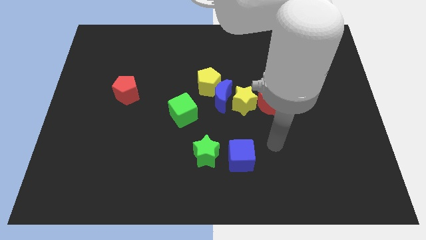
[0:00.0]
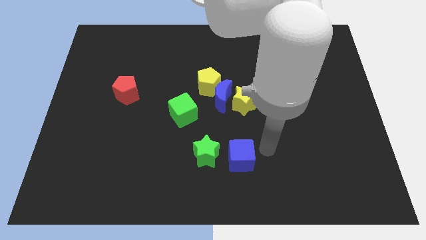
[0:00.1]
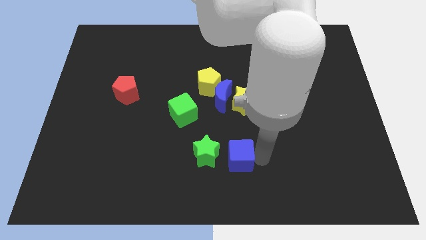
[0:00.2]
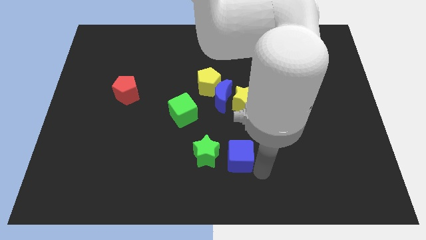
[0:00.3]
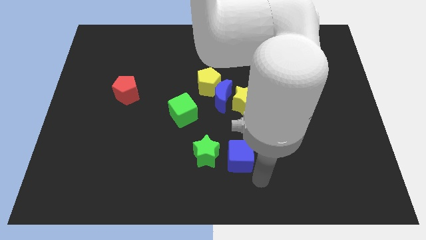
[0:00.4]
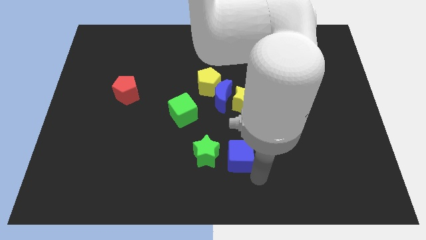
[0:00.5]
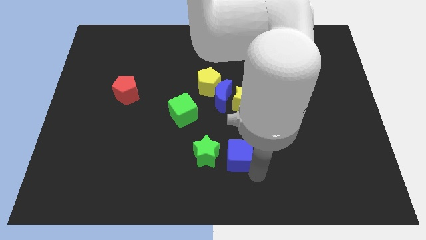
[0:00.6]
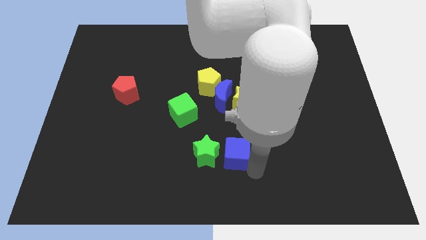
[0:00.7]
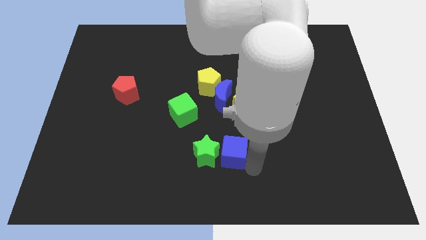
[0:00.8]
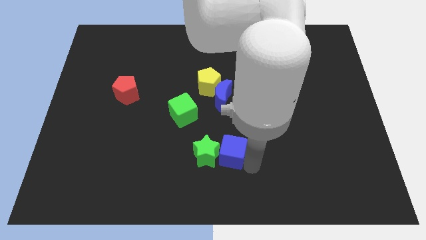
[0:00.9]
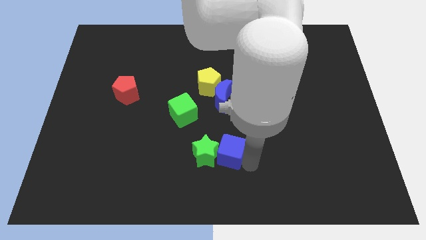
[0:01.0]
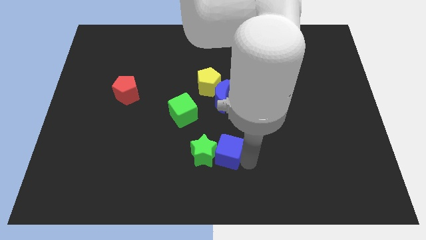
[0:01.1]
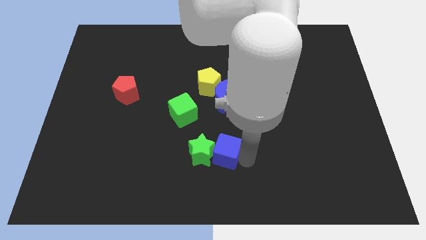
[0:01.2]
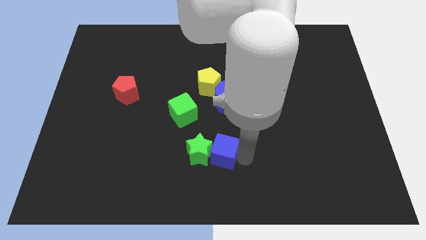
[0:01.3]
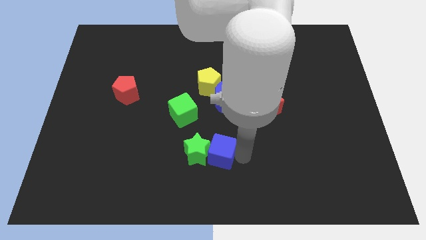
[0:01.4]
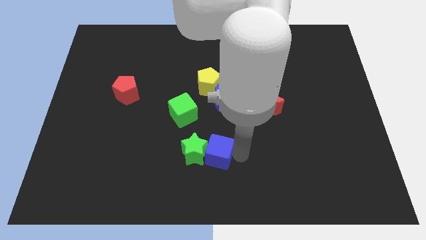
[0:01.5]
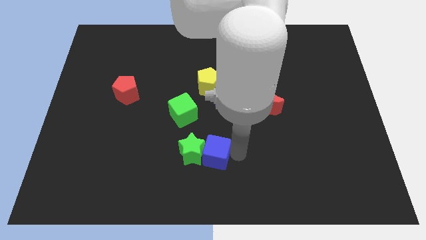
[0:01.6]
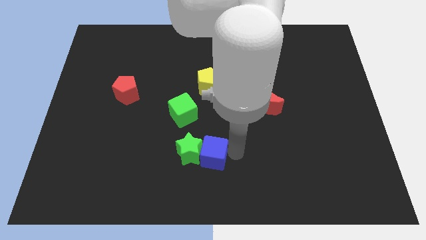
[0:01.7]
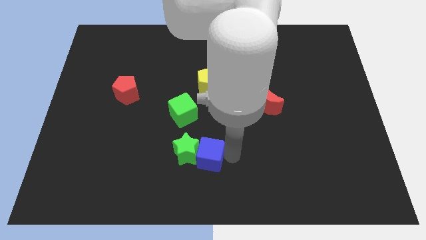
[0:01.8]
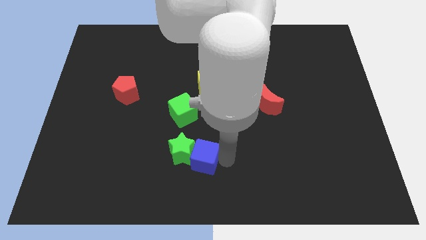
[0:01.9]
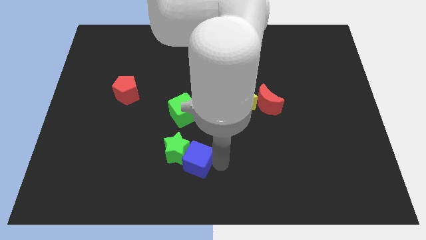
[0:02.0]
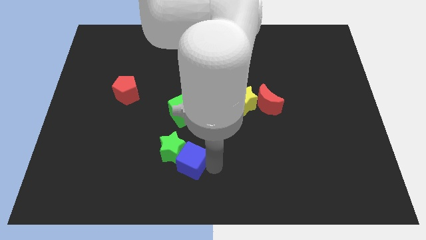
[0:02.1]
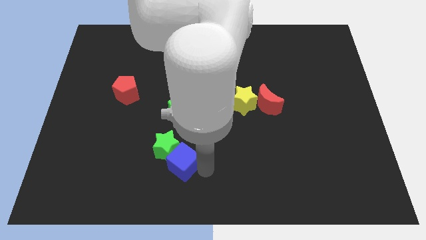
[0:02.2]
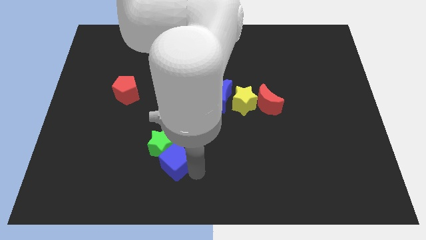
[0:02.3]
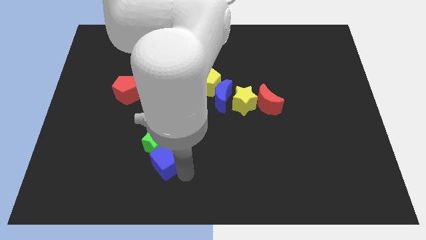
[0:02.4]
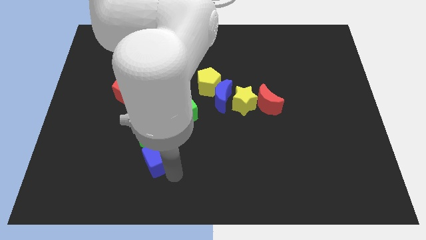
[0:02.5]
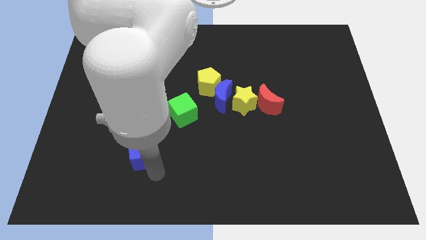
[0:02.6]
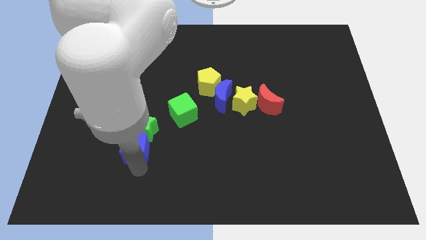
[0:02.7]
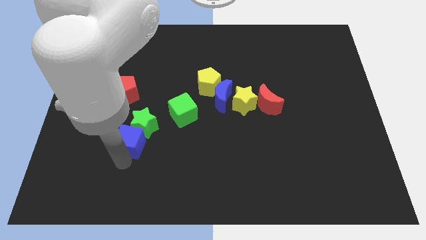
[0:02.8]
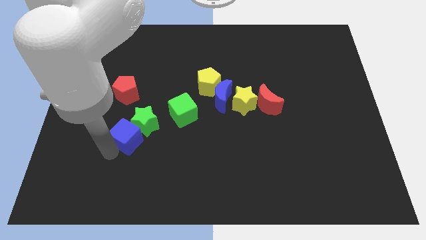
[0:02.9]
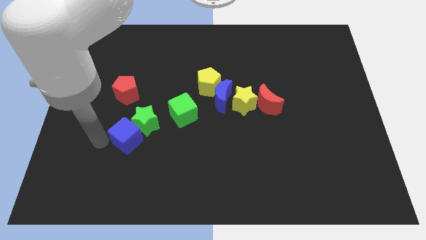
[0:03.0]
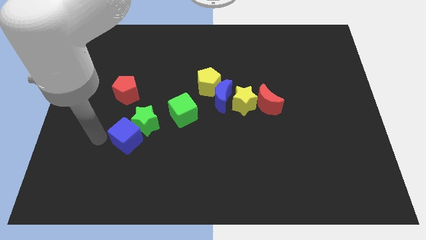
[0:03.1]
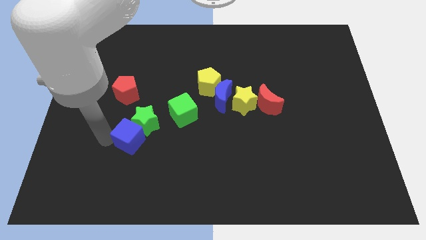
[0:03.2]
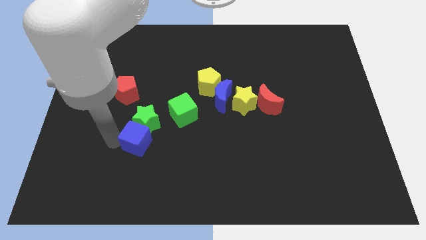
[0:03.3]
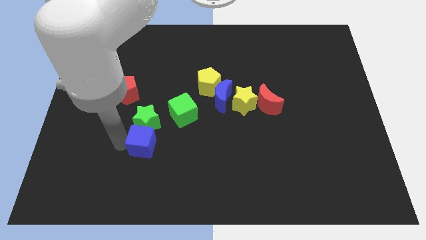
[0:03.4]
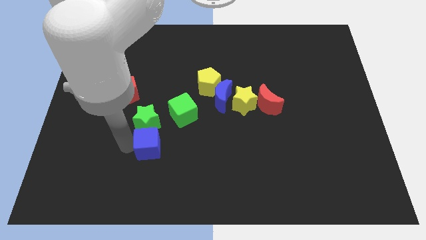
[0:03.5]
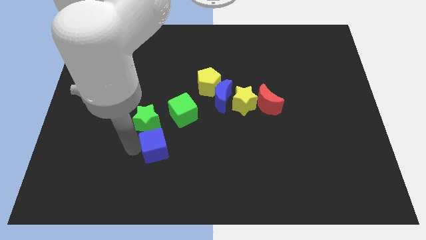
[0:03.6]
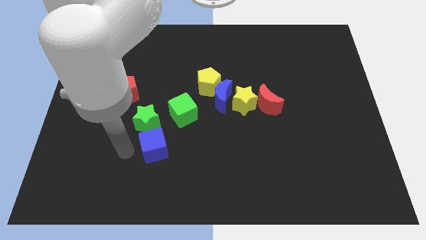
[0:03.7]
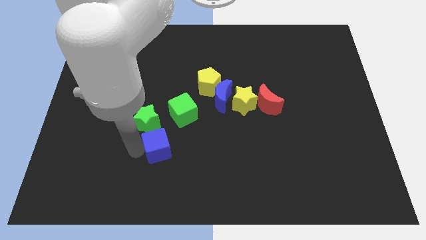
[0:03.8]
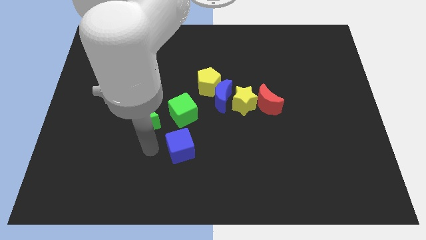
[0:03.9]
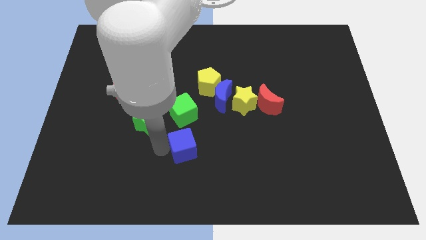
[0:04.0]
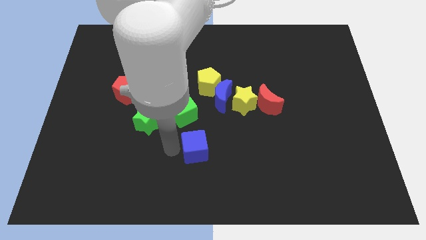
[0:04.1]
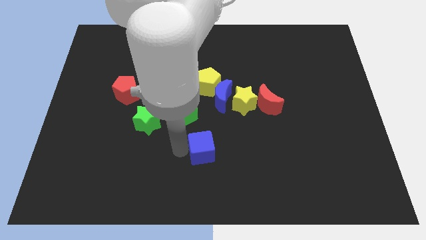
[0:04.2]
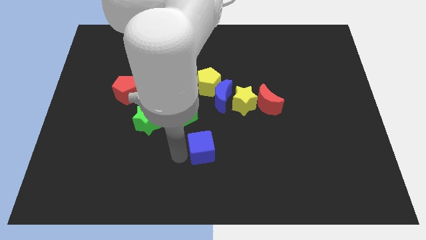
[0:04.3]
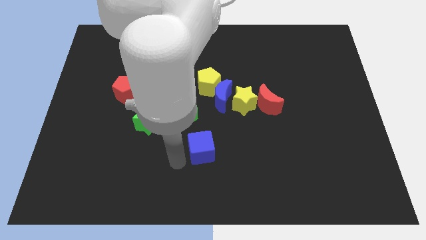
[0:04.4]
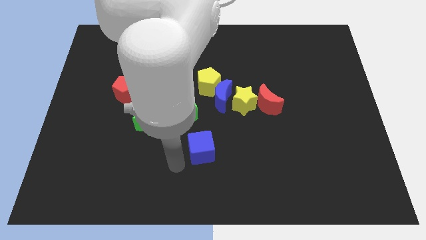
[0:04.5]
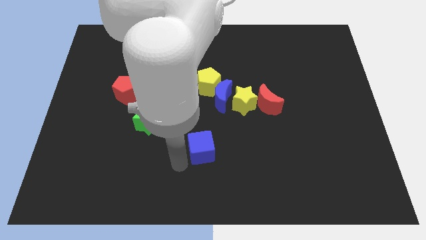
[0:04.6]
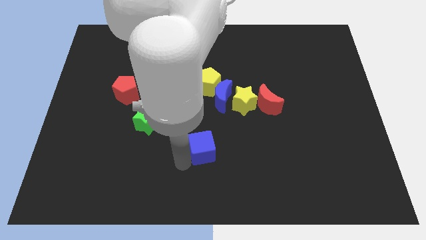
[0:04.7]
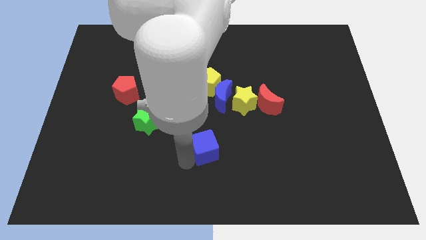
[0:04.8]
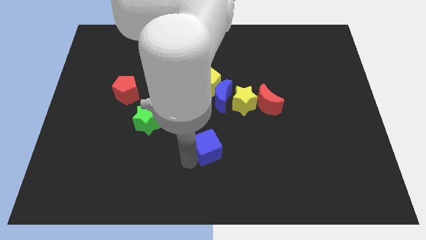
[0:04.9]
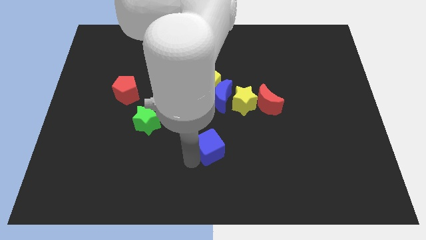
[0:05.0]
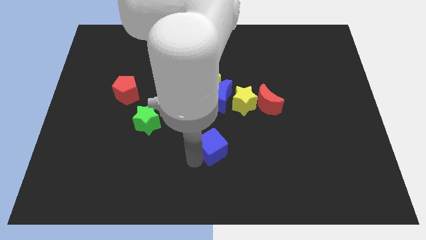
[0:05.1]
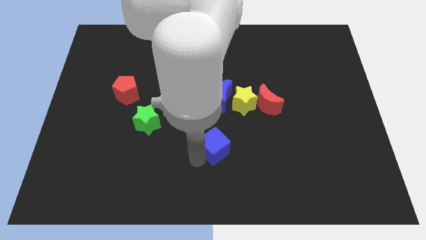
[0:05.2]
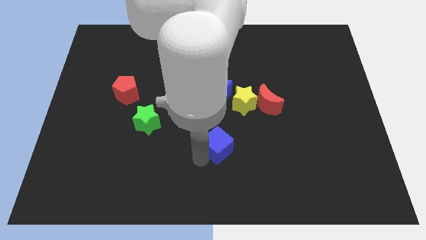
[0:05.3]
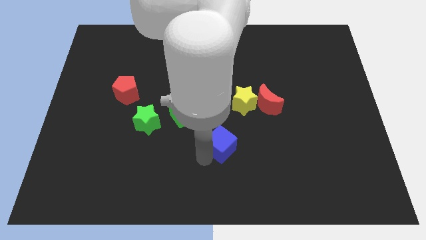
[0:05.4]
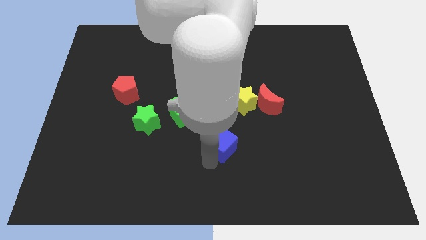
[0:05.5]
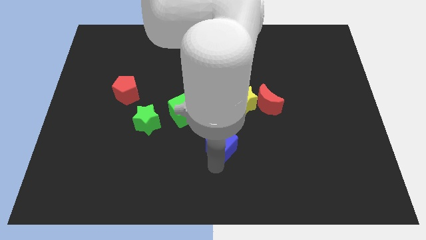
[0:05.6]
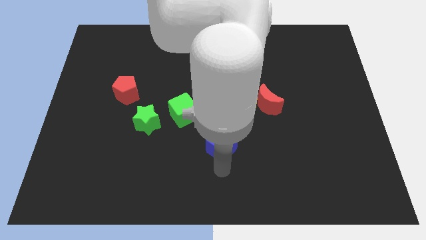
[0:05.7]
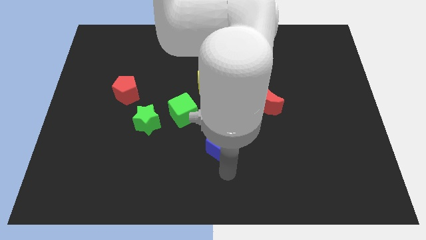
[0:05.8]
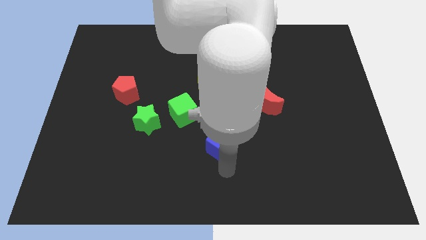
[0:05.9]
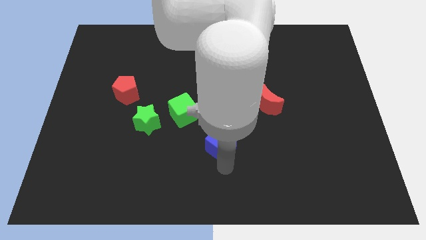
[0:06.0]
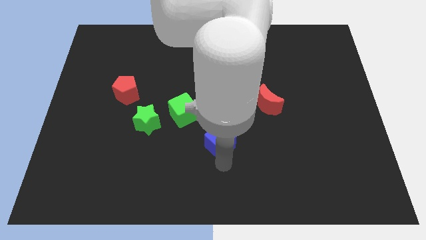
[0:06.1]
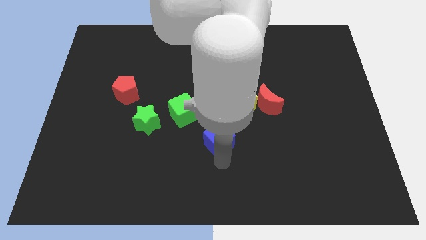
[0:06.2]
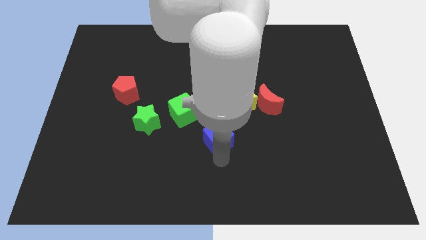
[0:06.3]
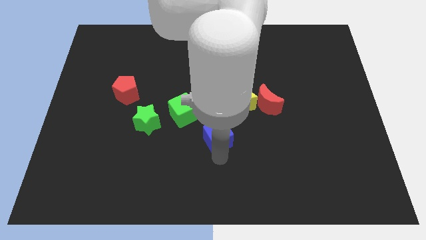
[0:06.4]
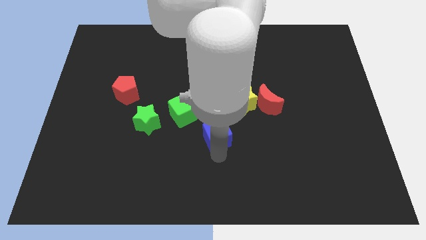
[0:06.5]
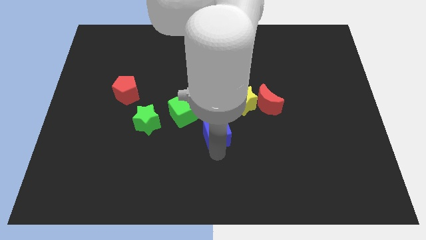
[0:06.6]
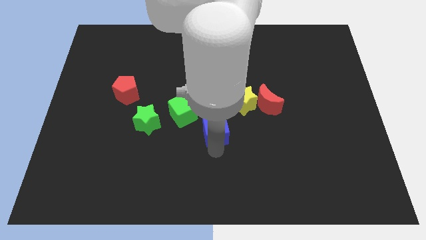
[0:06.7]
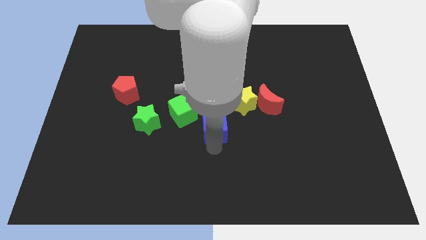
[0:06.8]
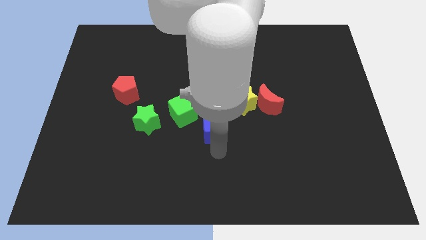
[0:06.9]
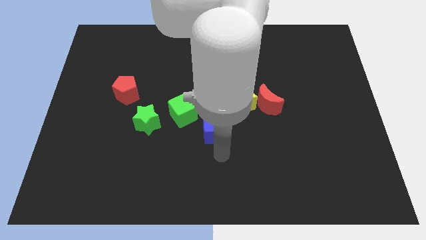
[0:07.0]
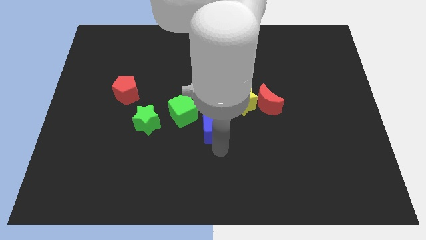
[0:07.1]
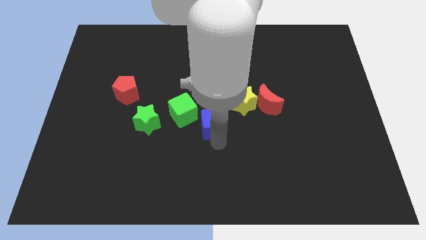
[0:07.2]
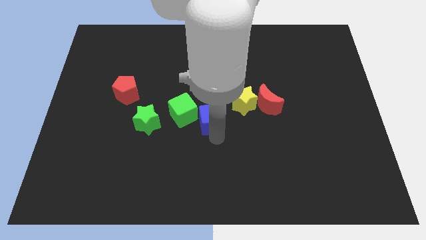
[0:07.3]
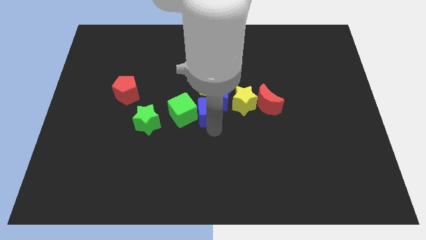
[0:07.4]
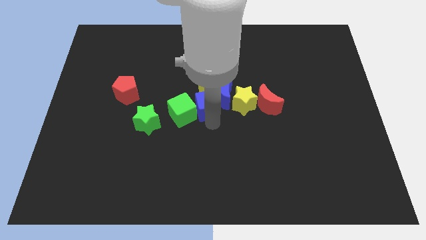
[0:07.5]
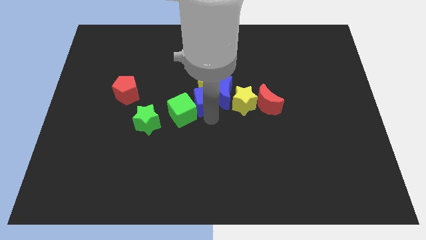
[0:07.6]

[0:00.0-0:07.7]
slide the blue cube close to the yellow pentagon

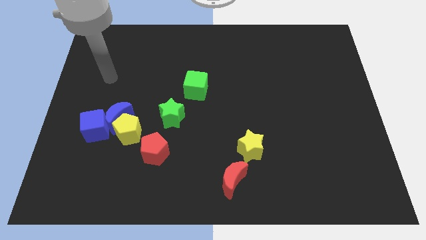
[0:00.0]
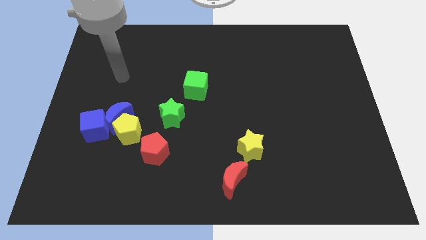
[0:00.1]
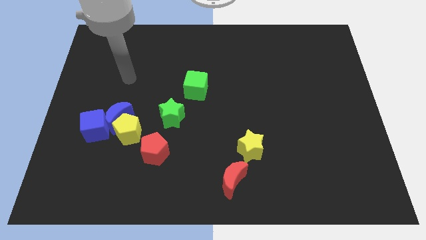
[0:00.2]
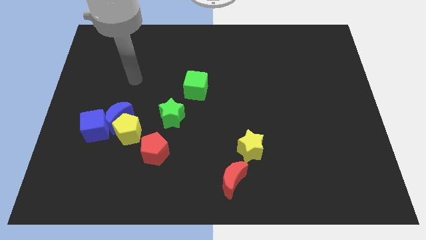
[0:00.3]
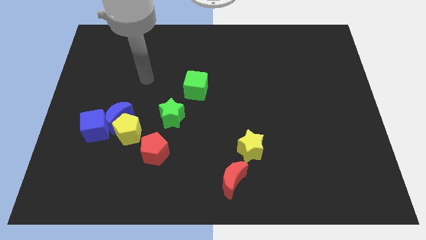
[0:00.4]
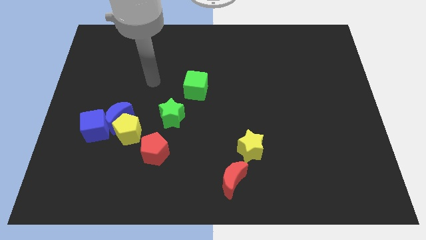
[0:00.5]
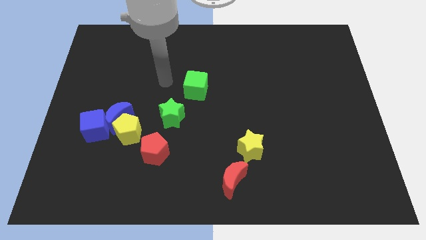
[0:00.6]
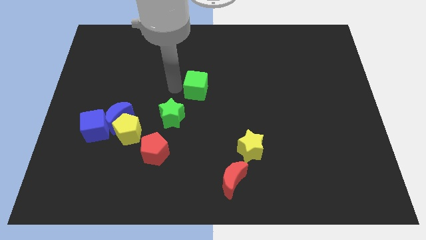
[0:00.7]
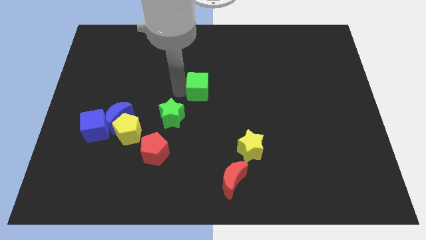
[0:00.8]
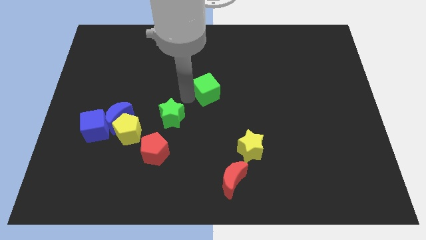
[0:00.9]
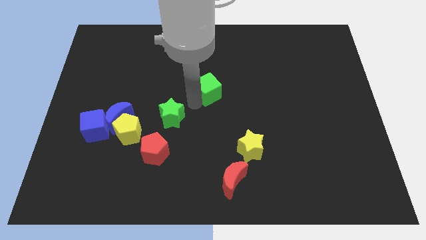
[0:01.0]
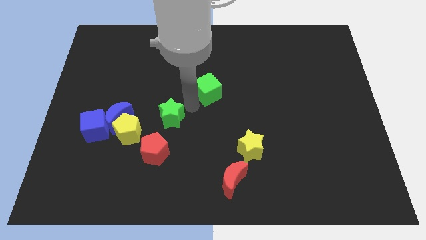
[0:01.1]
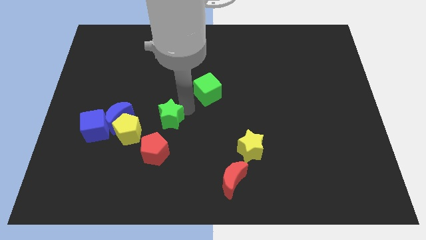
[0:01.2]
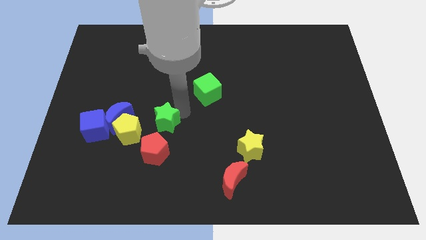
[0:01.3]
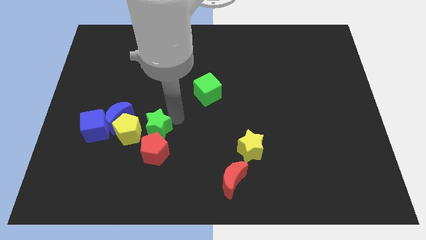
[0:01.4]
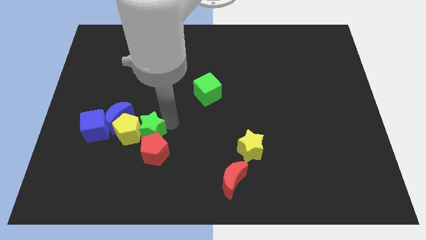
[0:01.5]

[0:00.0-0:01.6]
put the green star to the yellow pentagon
